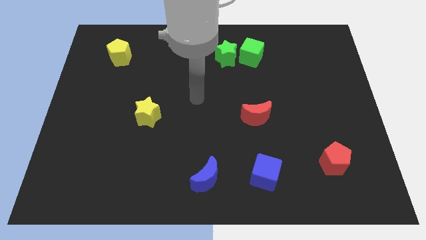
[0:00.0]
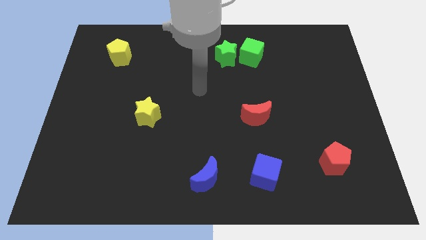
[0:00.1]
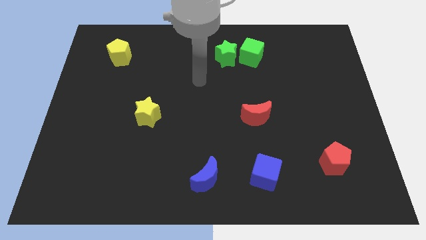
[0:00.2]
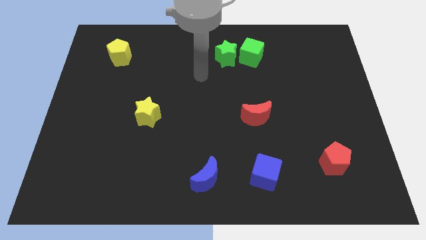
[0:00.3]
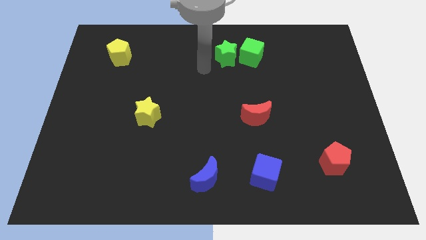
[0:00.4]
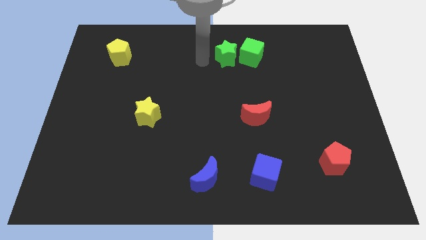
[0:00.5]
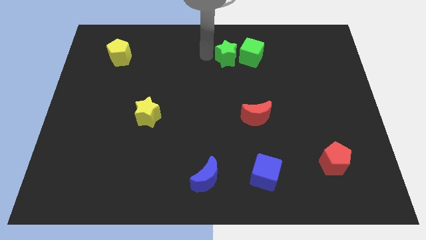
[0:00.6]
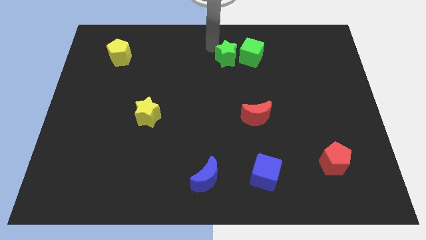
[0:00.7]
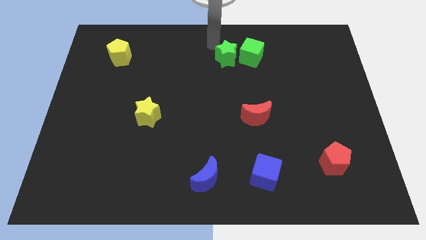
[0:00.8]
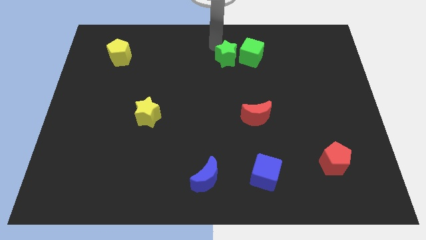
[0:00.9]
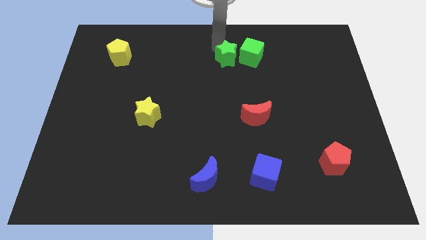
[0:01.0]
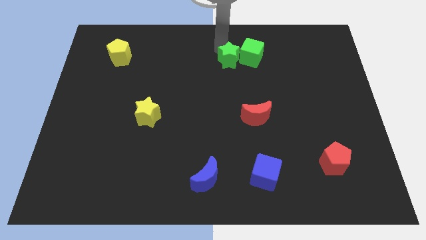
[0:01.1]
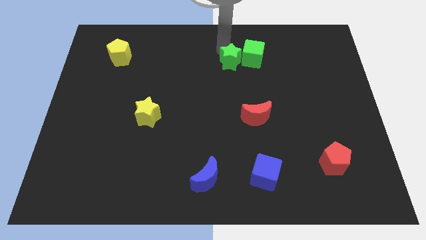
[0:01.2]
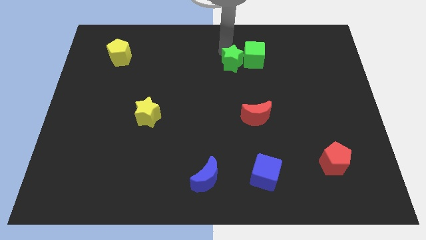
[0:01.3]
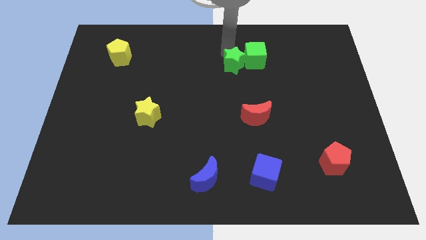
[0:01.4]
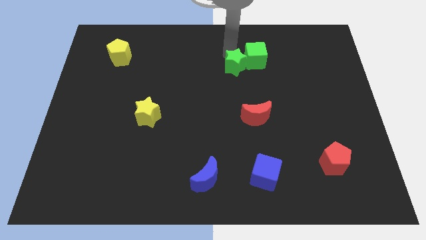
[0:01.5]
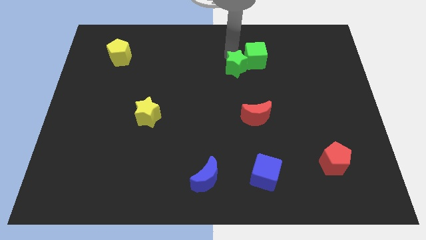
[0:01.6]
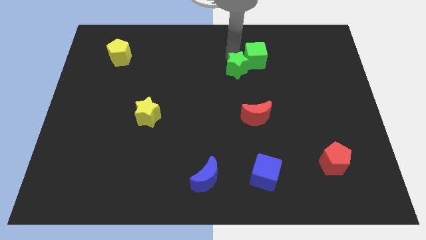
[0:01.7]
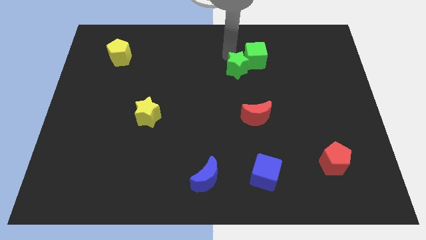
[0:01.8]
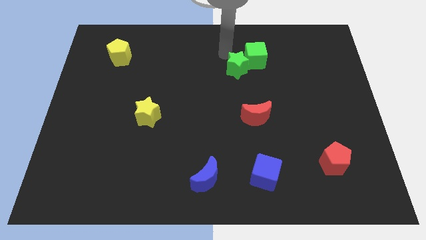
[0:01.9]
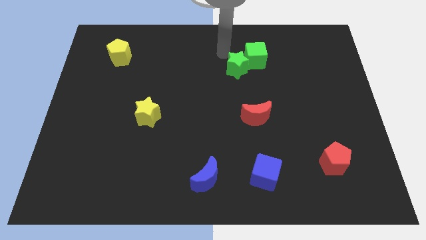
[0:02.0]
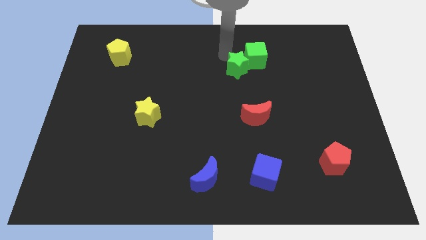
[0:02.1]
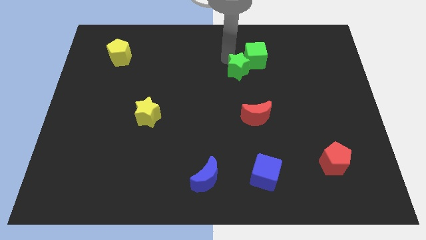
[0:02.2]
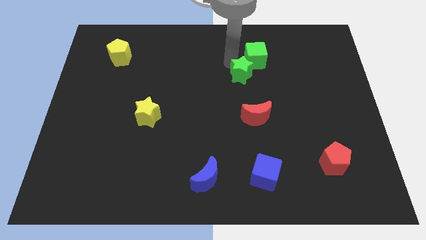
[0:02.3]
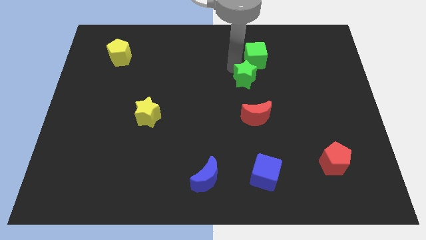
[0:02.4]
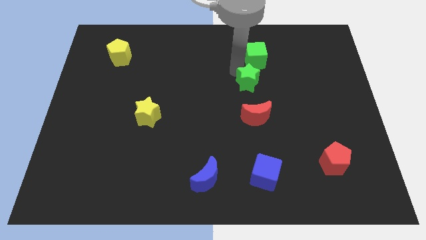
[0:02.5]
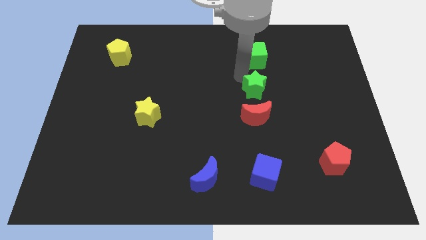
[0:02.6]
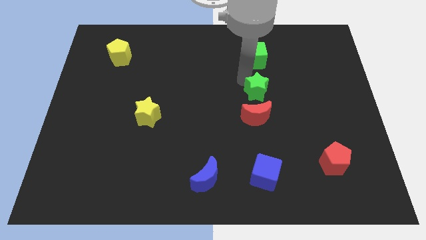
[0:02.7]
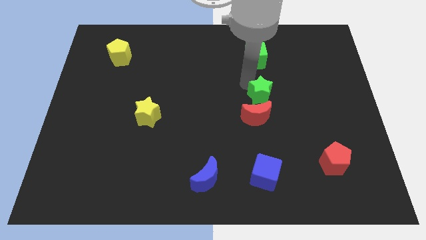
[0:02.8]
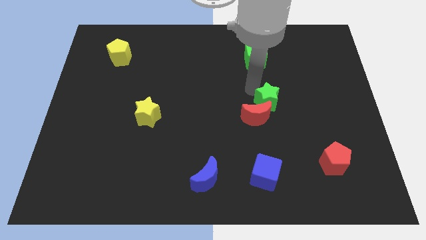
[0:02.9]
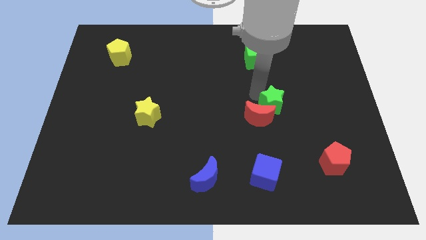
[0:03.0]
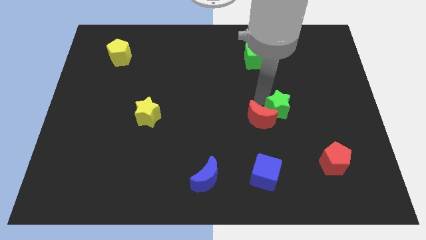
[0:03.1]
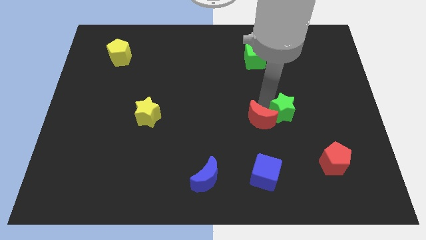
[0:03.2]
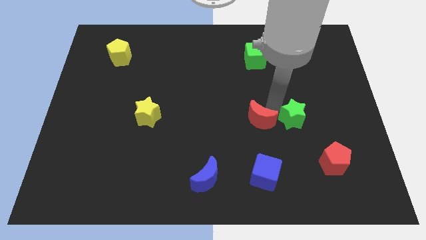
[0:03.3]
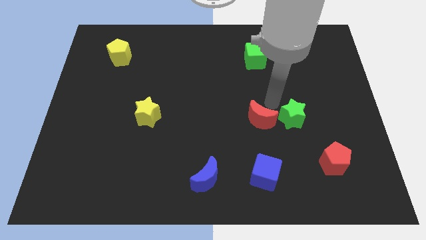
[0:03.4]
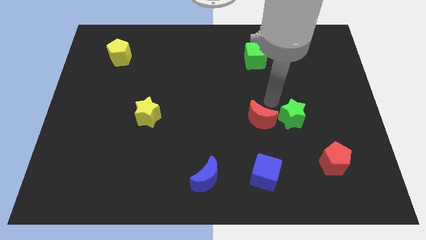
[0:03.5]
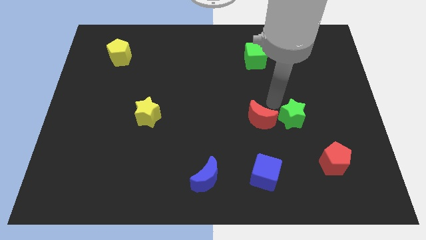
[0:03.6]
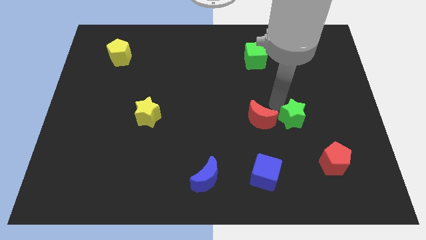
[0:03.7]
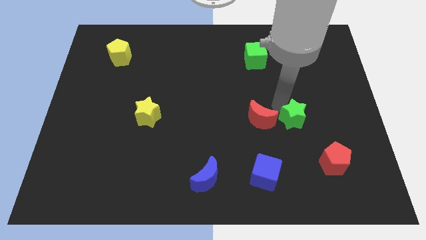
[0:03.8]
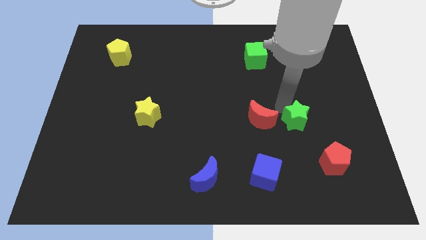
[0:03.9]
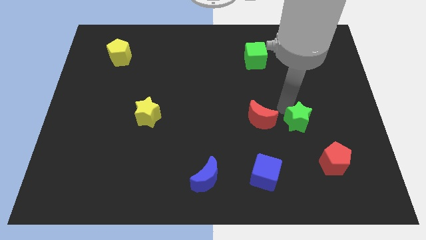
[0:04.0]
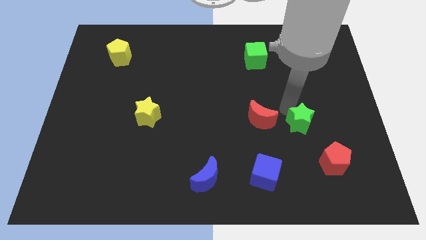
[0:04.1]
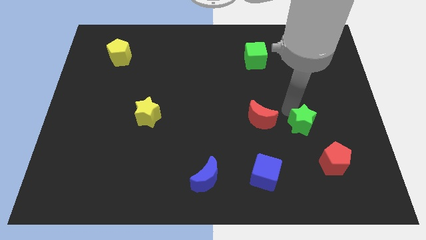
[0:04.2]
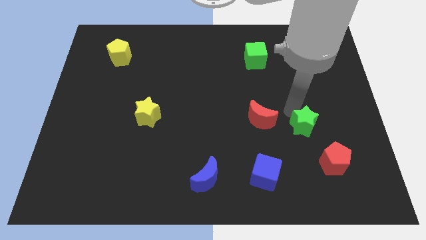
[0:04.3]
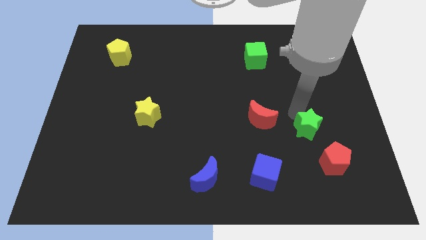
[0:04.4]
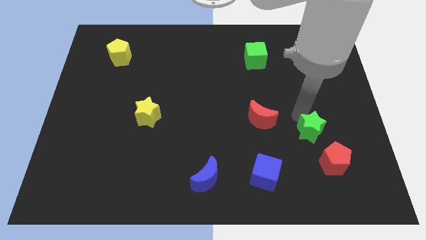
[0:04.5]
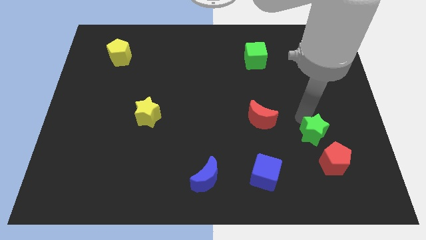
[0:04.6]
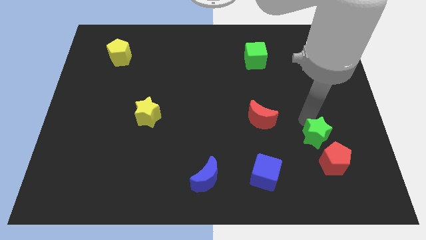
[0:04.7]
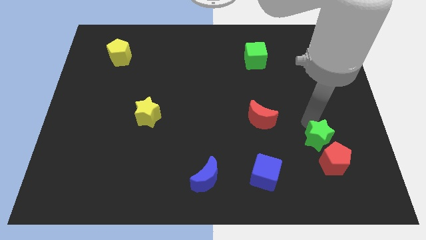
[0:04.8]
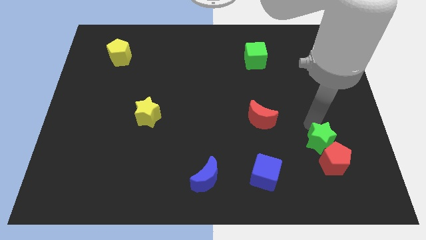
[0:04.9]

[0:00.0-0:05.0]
move the green star to the red pentagon

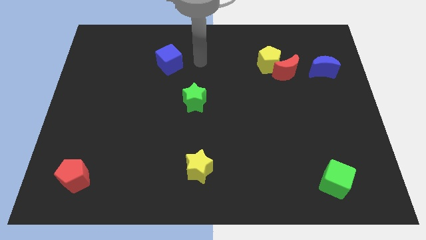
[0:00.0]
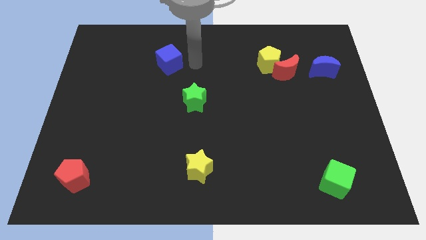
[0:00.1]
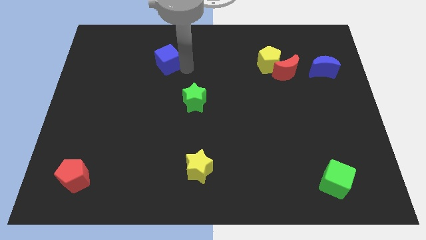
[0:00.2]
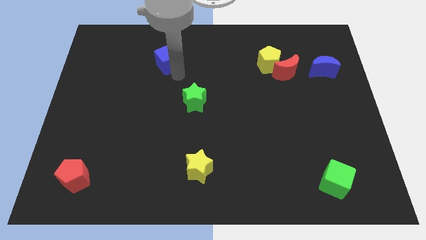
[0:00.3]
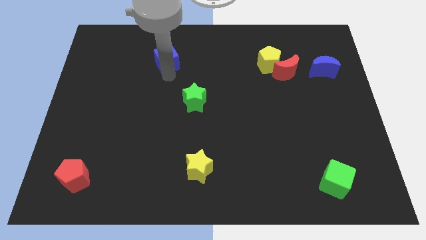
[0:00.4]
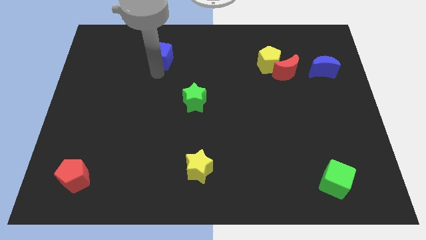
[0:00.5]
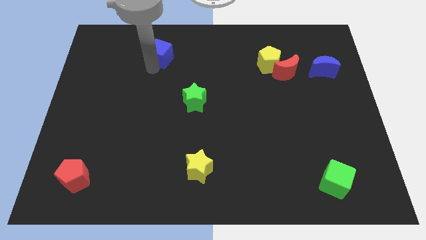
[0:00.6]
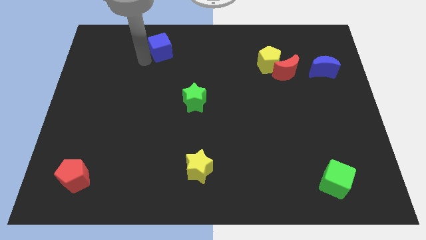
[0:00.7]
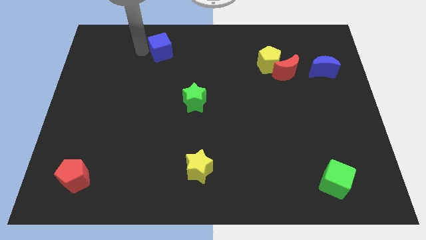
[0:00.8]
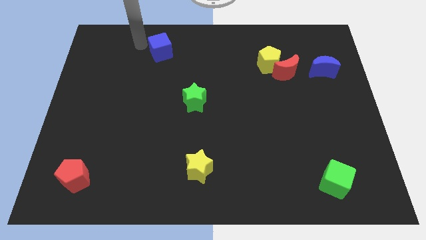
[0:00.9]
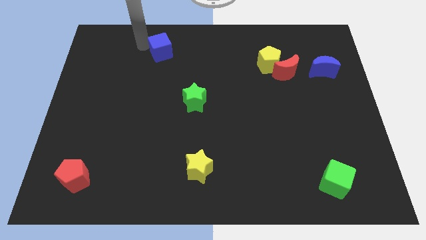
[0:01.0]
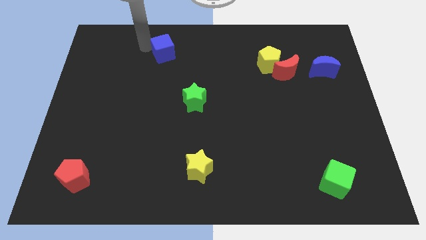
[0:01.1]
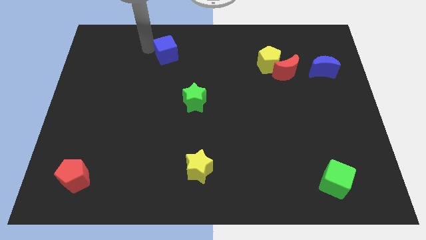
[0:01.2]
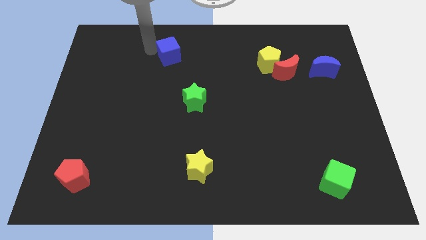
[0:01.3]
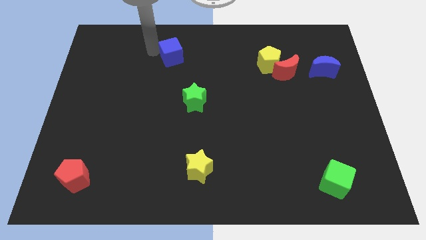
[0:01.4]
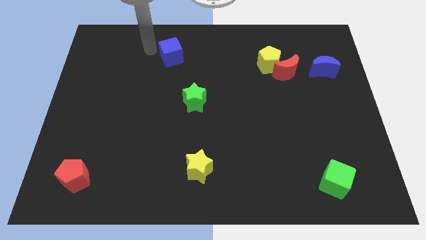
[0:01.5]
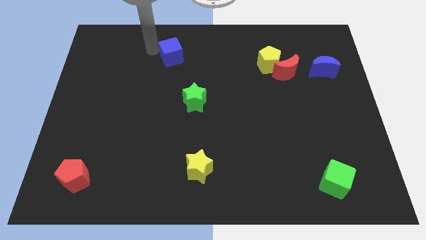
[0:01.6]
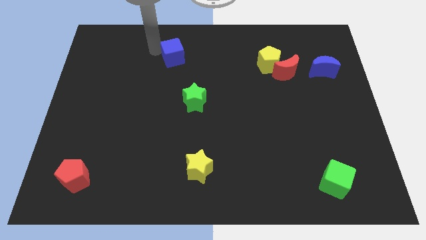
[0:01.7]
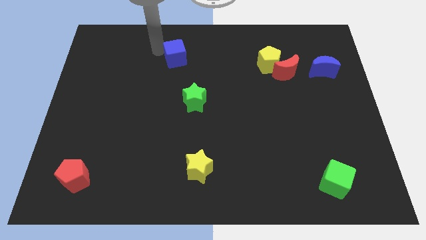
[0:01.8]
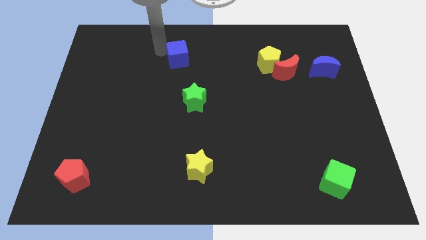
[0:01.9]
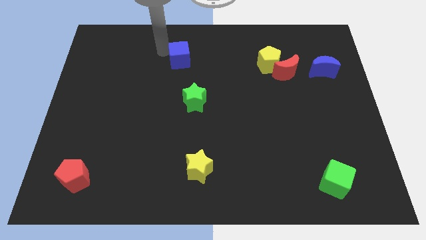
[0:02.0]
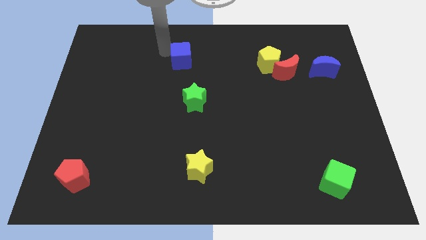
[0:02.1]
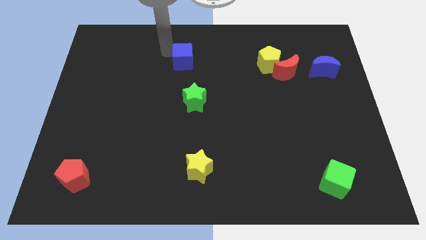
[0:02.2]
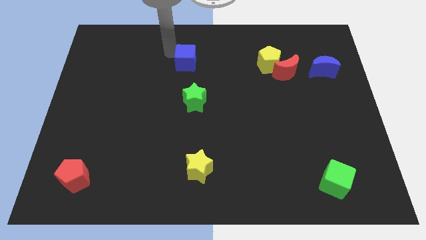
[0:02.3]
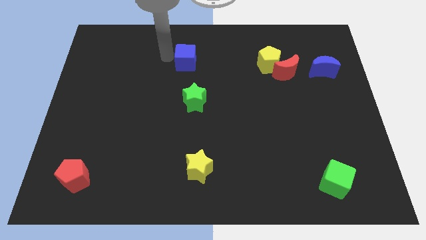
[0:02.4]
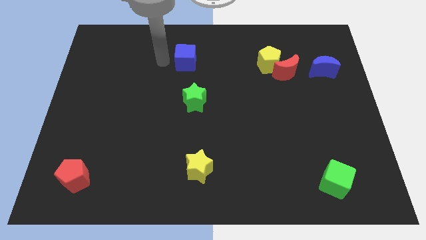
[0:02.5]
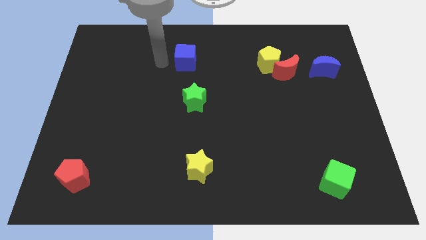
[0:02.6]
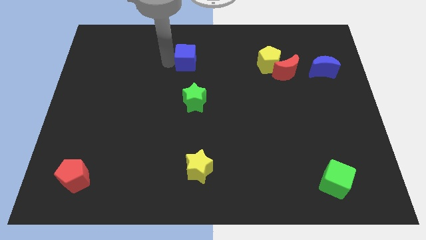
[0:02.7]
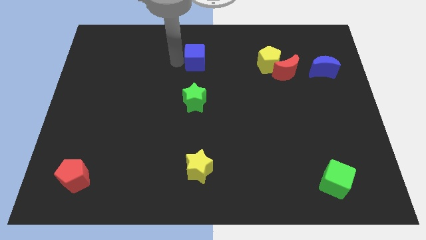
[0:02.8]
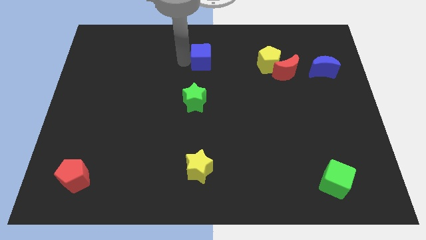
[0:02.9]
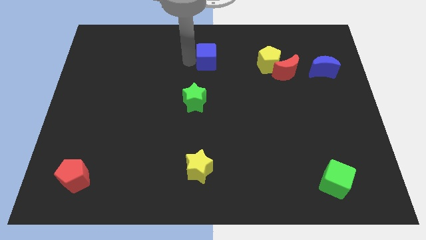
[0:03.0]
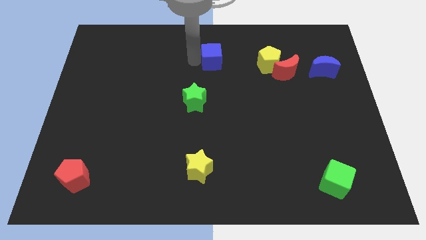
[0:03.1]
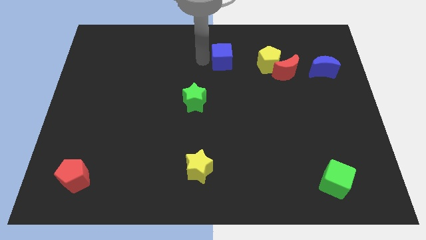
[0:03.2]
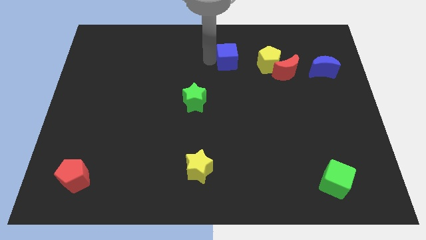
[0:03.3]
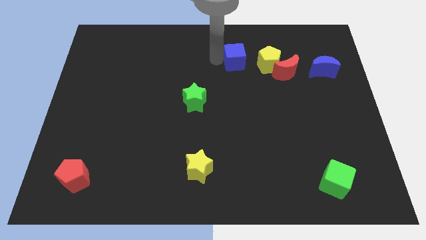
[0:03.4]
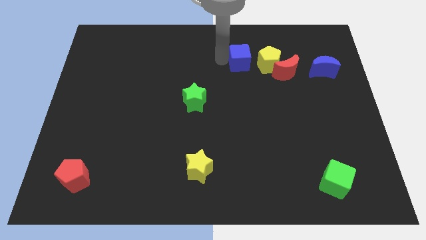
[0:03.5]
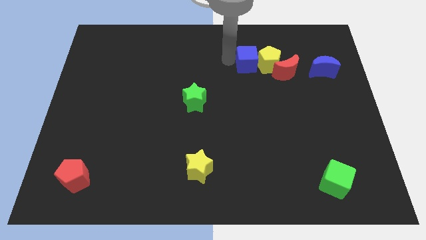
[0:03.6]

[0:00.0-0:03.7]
put the blue cube close to the yellow pentagon
